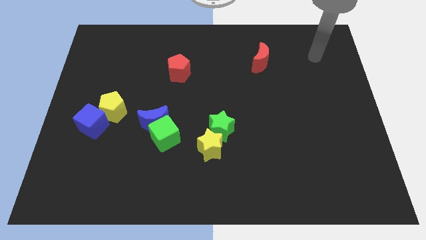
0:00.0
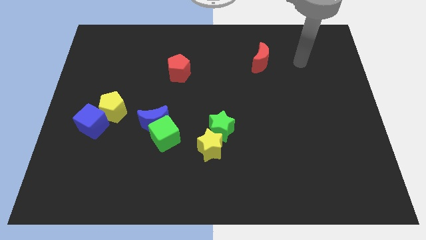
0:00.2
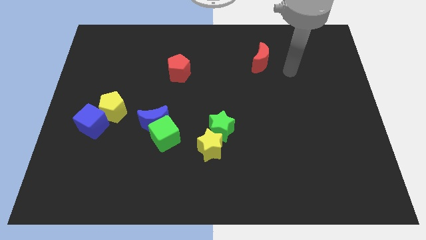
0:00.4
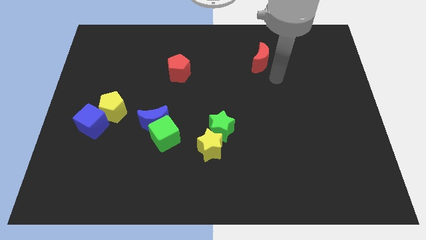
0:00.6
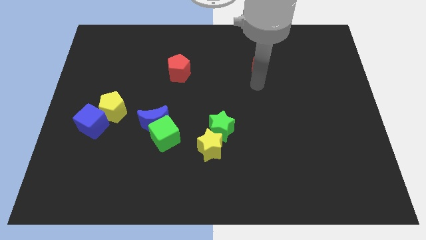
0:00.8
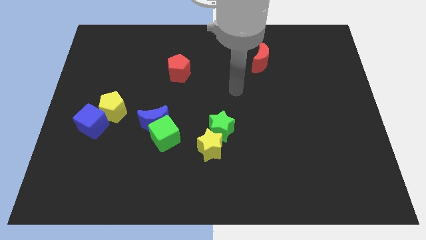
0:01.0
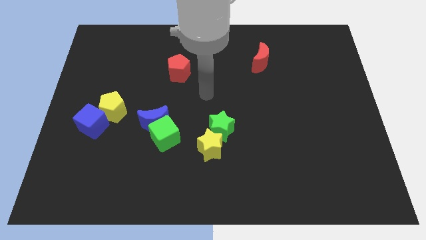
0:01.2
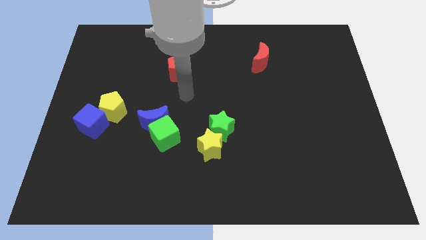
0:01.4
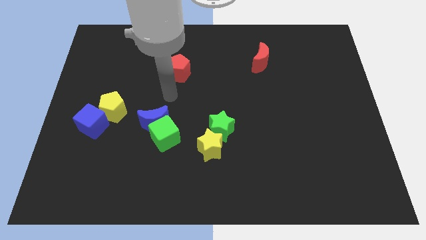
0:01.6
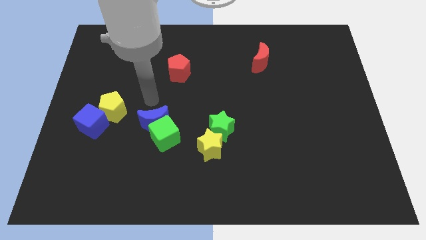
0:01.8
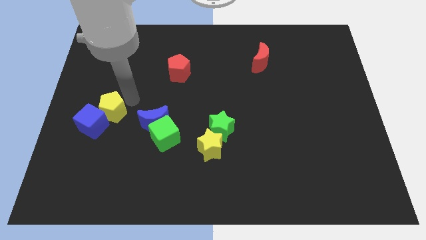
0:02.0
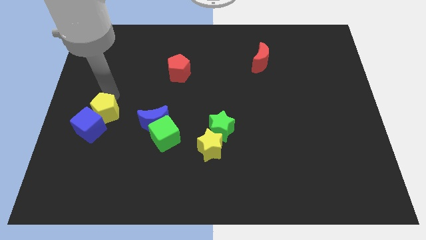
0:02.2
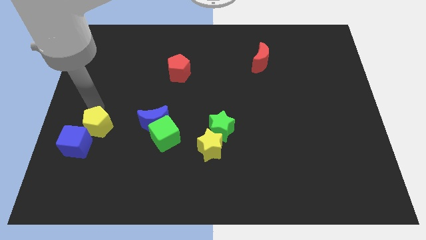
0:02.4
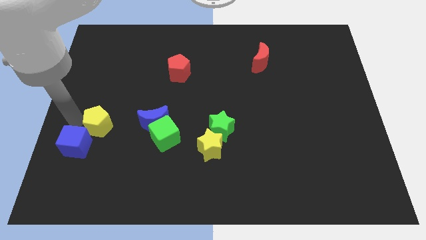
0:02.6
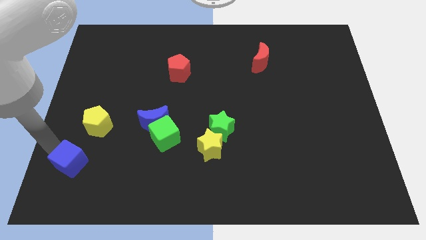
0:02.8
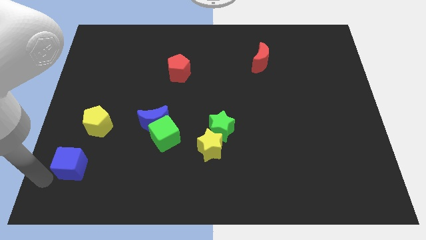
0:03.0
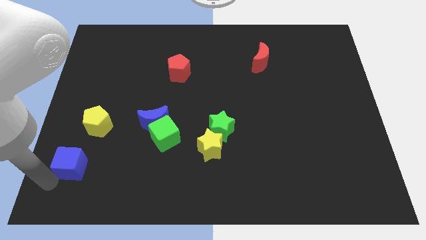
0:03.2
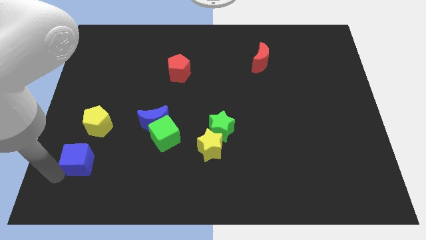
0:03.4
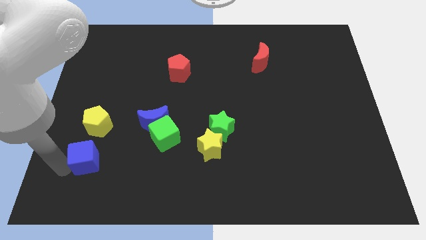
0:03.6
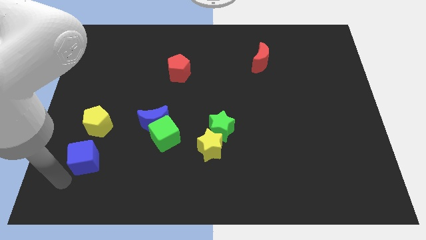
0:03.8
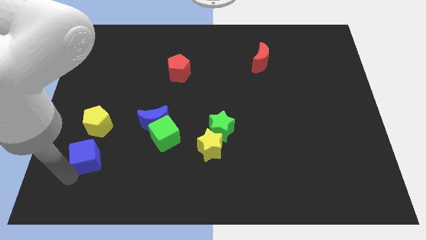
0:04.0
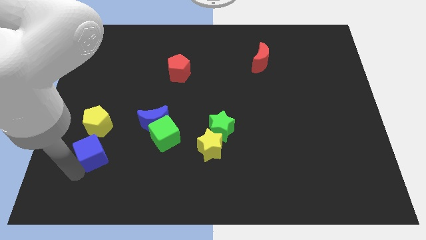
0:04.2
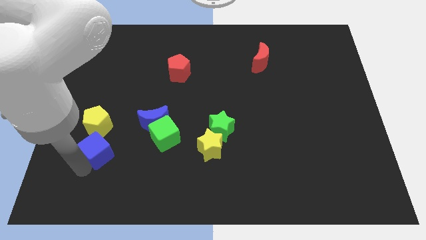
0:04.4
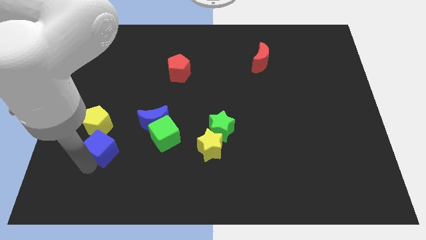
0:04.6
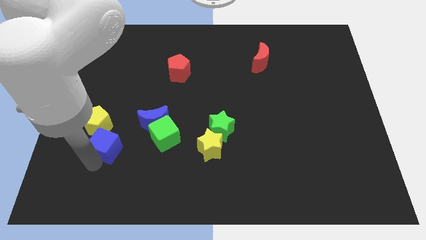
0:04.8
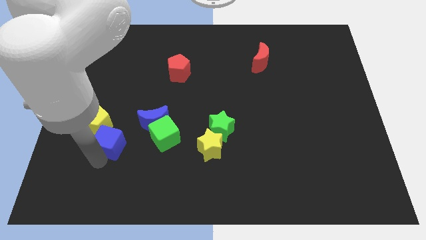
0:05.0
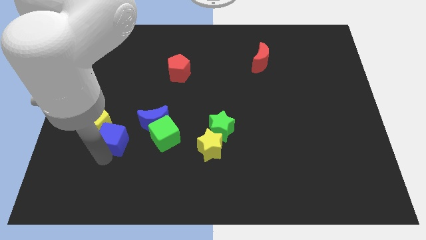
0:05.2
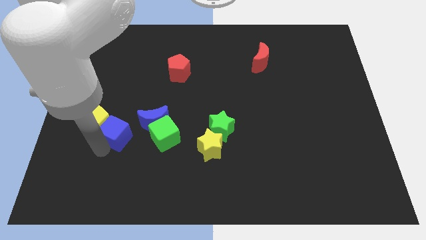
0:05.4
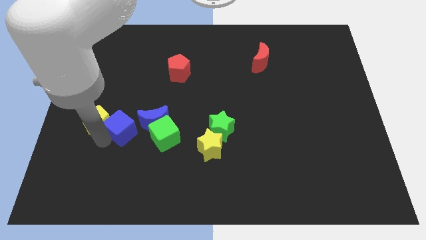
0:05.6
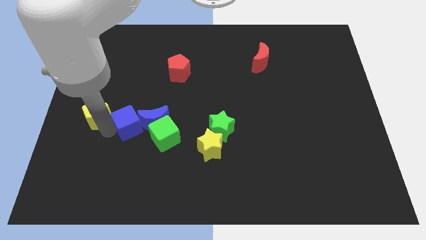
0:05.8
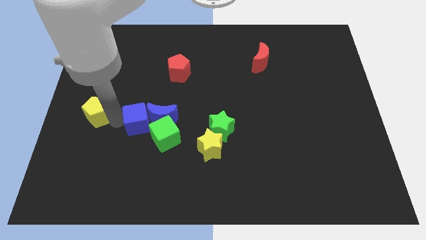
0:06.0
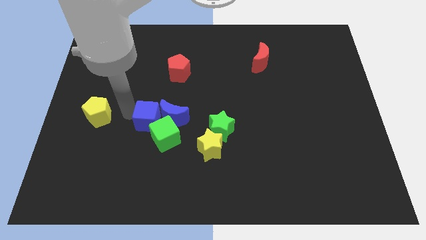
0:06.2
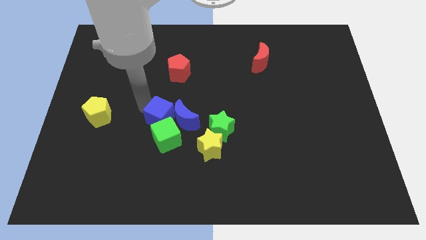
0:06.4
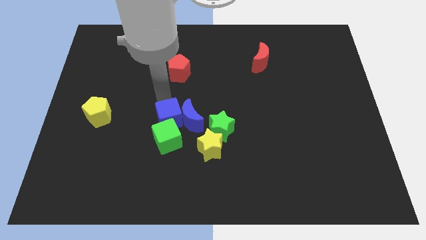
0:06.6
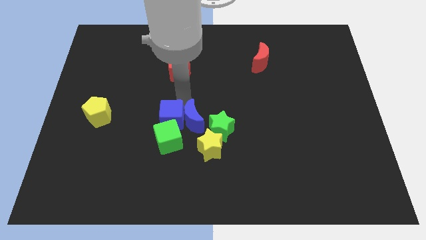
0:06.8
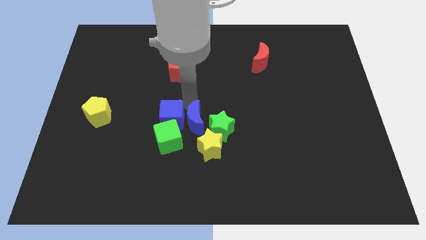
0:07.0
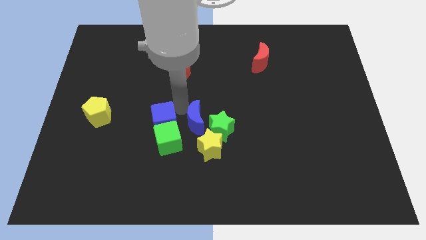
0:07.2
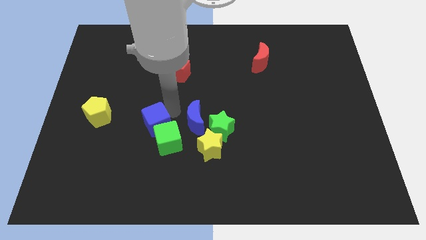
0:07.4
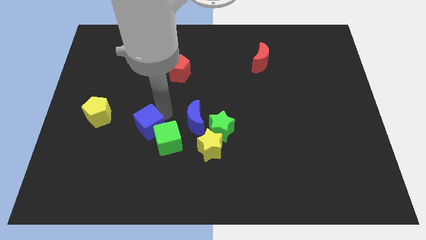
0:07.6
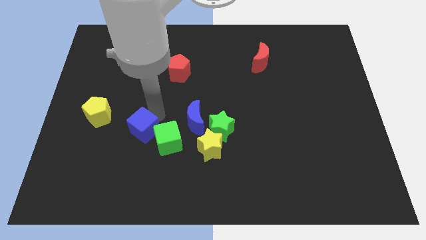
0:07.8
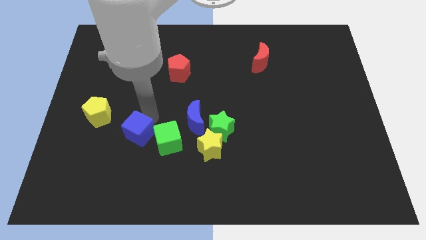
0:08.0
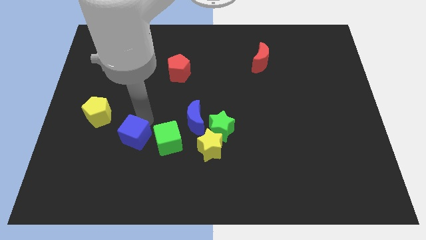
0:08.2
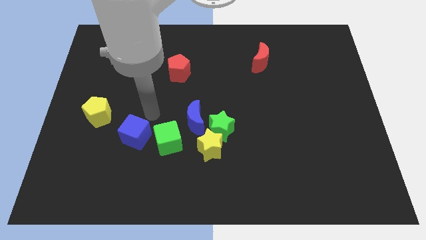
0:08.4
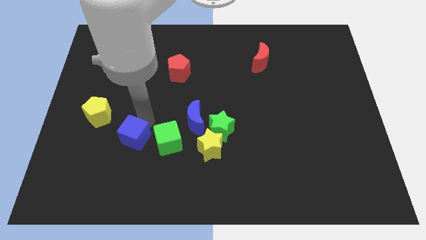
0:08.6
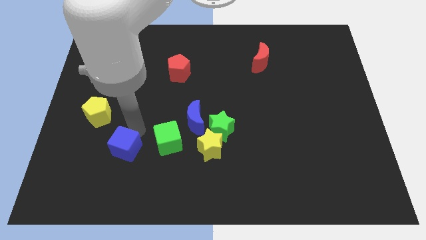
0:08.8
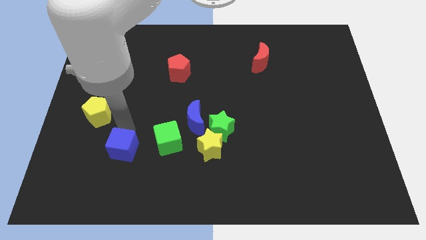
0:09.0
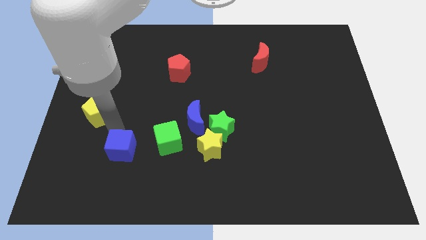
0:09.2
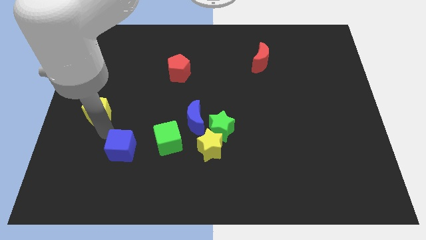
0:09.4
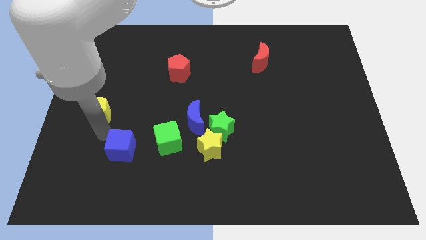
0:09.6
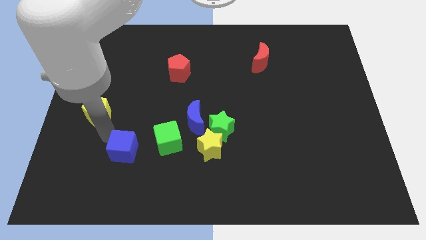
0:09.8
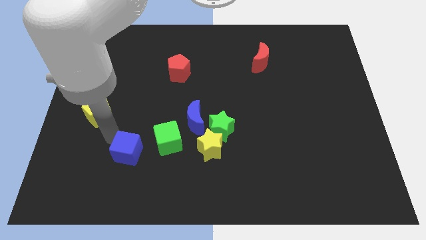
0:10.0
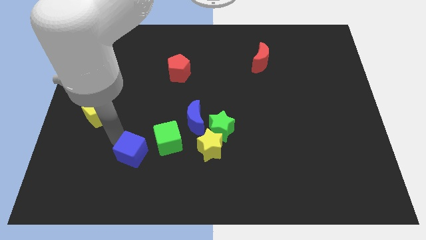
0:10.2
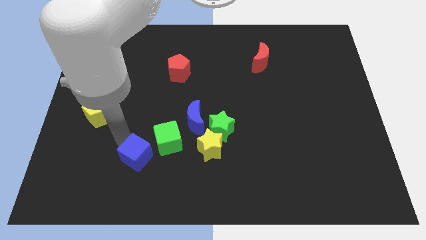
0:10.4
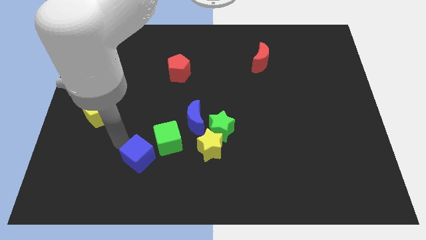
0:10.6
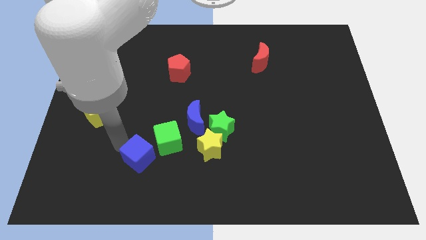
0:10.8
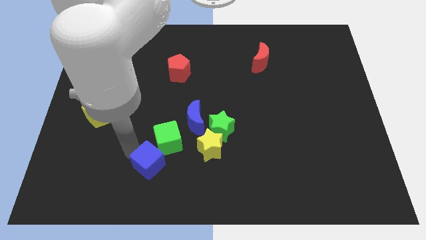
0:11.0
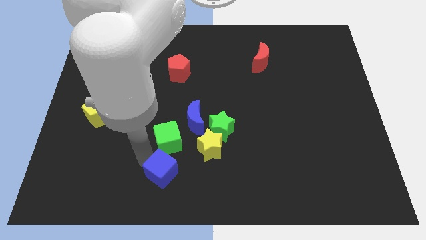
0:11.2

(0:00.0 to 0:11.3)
slide the blue cube to the bottom

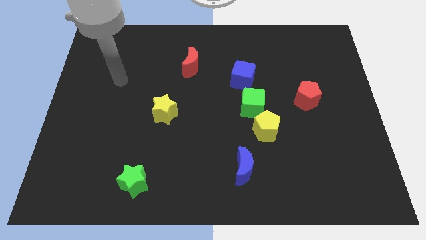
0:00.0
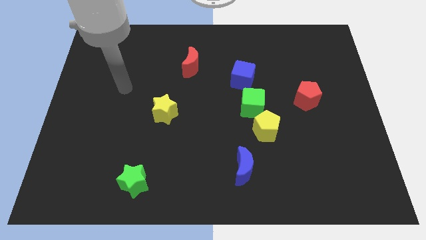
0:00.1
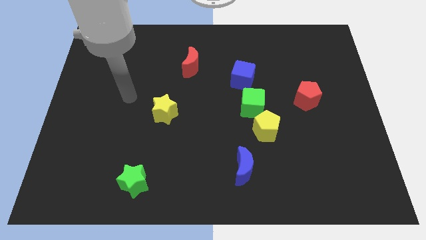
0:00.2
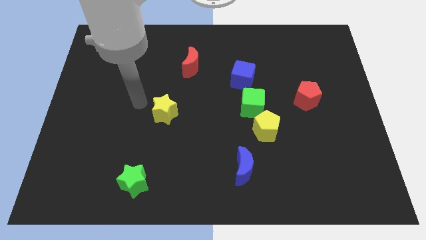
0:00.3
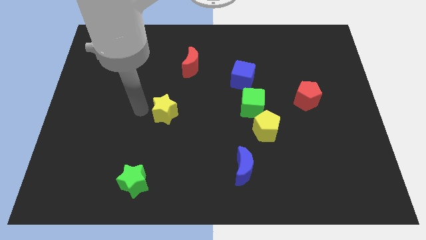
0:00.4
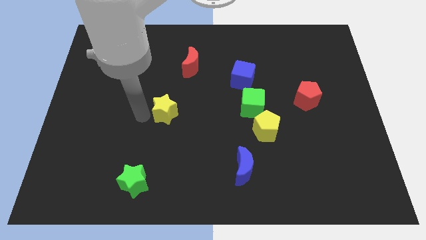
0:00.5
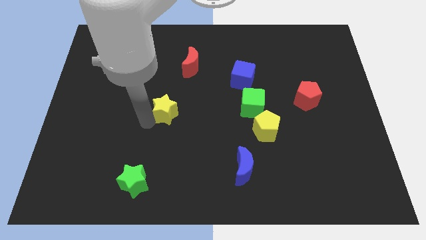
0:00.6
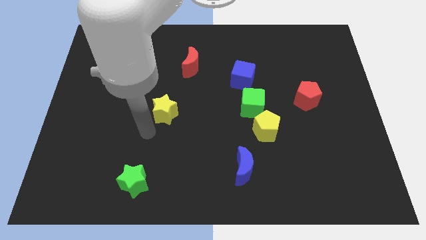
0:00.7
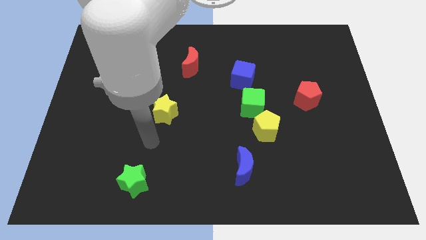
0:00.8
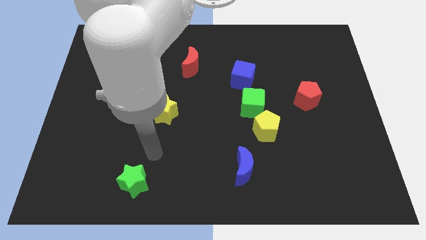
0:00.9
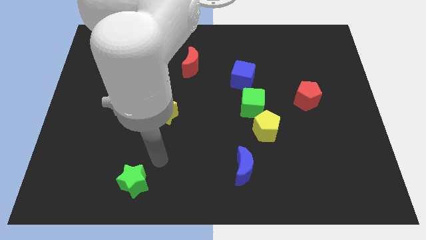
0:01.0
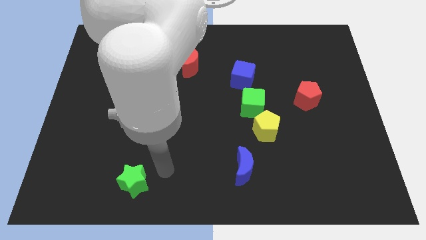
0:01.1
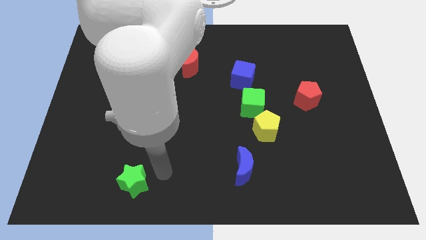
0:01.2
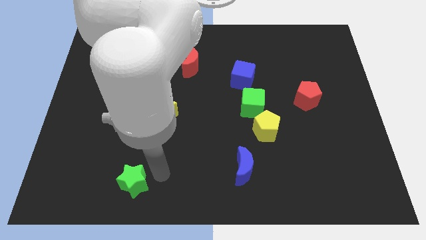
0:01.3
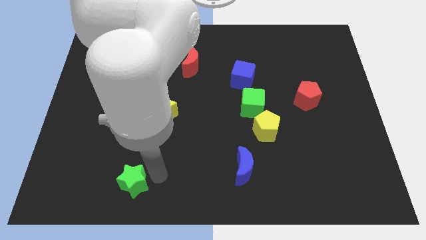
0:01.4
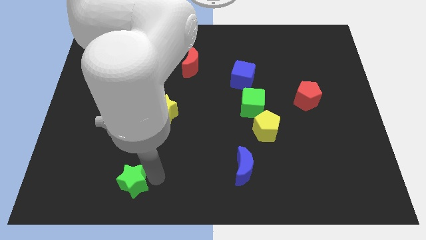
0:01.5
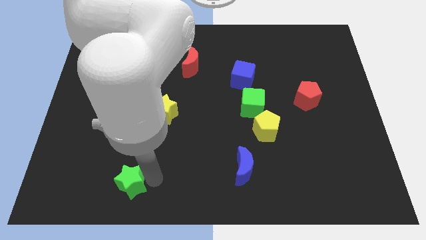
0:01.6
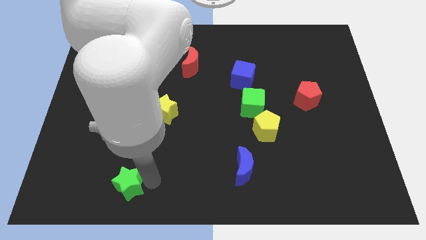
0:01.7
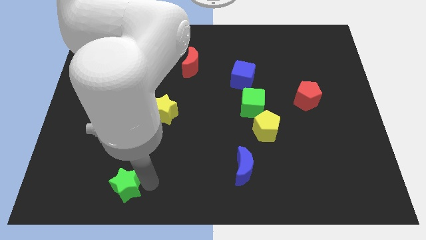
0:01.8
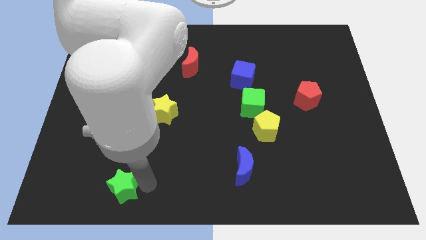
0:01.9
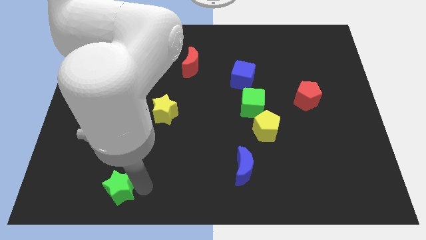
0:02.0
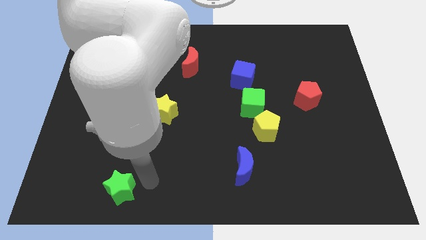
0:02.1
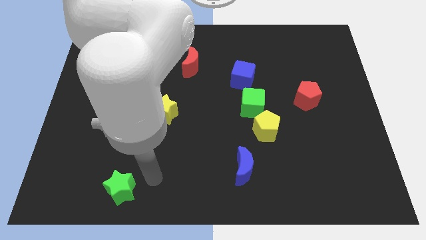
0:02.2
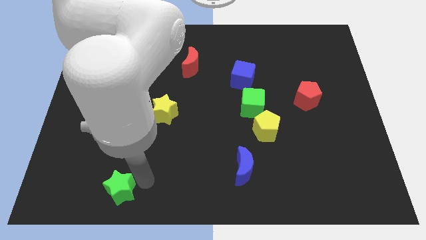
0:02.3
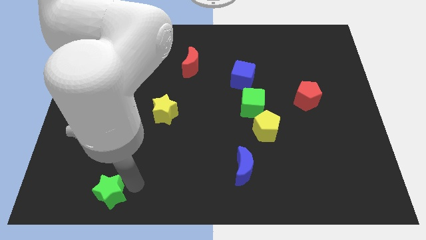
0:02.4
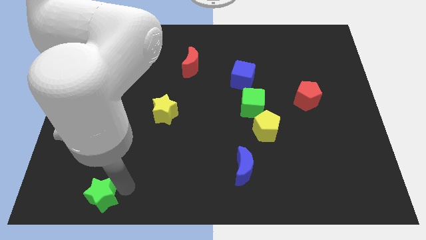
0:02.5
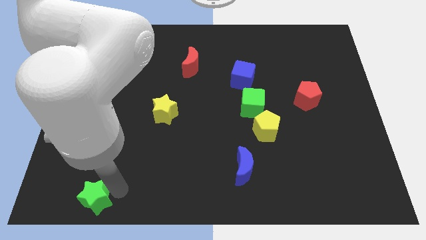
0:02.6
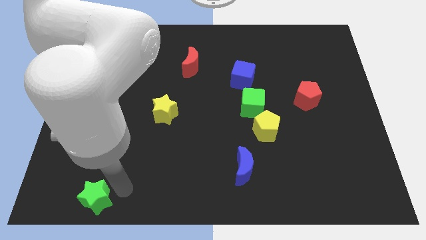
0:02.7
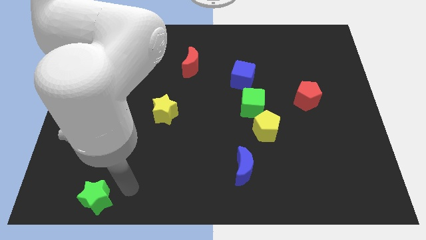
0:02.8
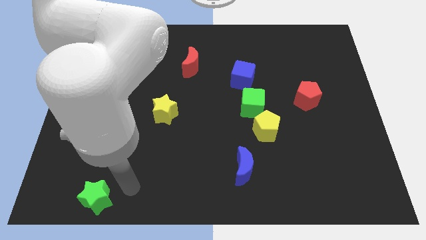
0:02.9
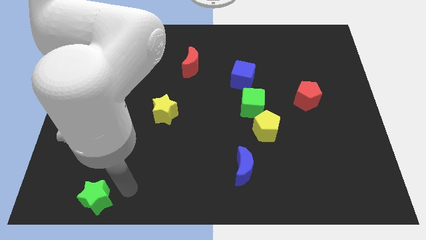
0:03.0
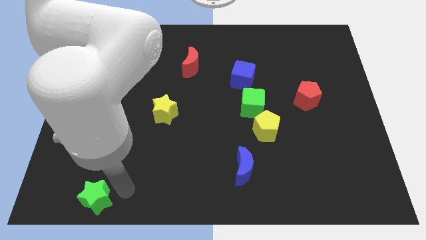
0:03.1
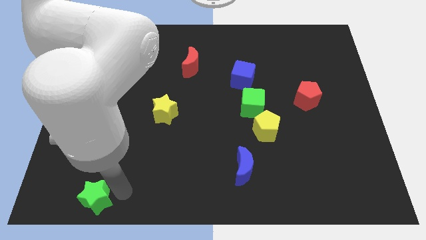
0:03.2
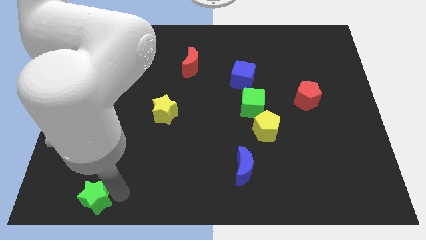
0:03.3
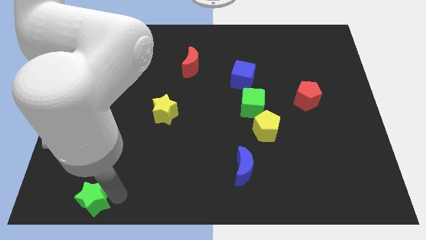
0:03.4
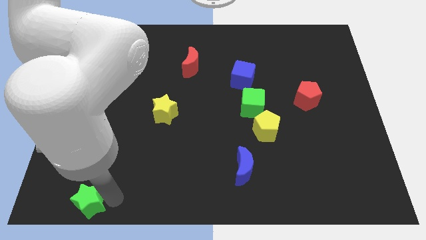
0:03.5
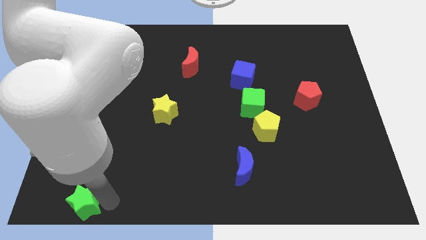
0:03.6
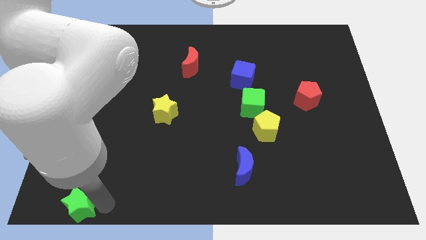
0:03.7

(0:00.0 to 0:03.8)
slide the green star to the bottom left
